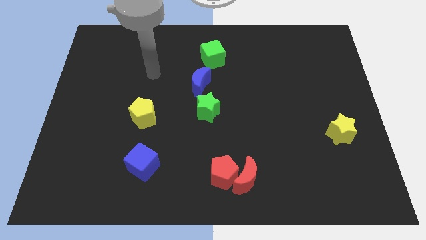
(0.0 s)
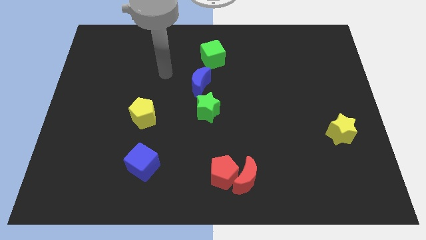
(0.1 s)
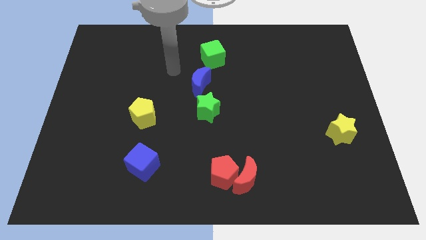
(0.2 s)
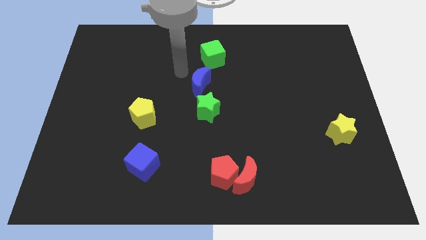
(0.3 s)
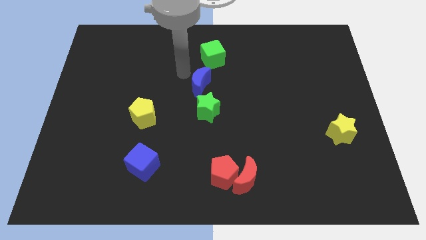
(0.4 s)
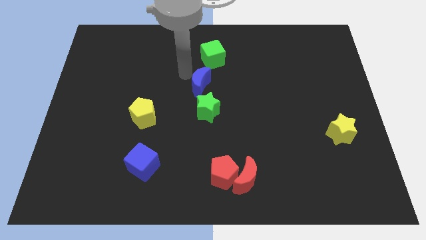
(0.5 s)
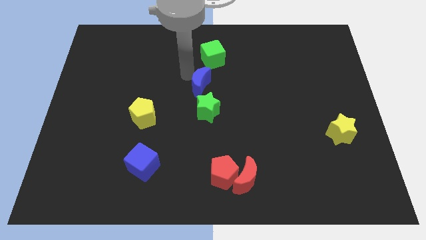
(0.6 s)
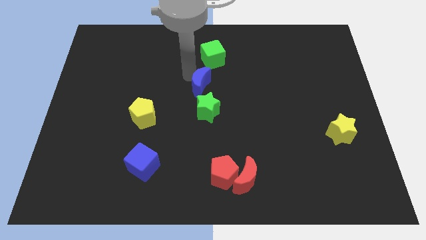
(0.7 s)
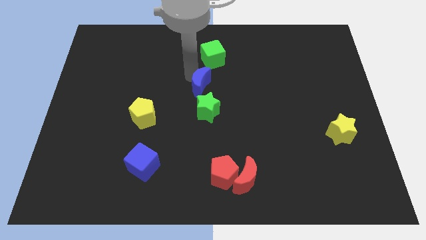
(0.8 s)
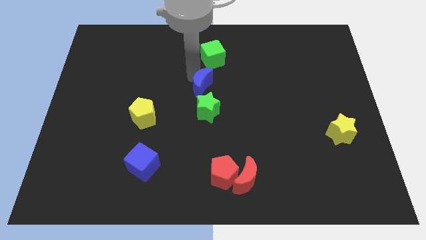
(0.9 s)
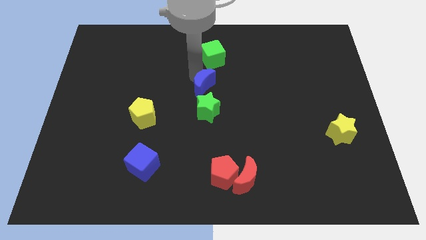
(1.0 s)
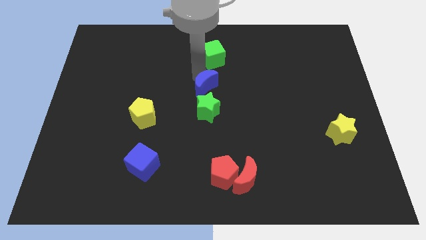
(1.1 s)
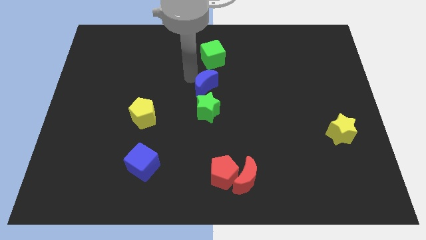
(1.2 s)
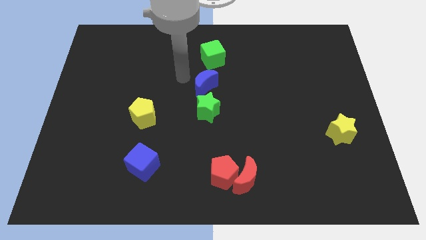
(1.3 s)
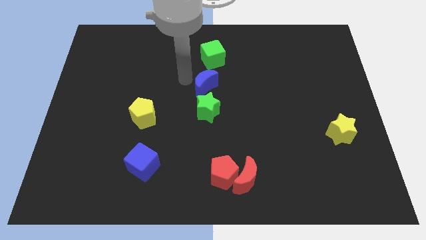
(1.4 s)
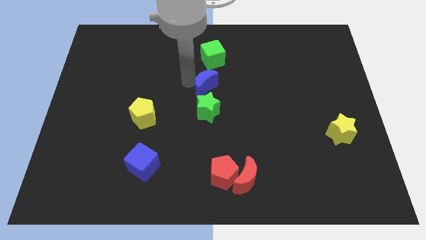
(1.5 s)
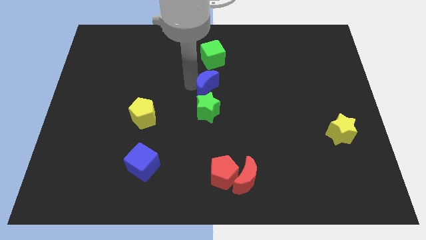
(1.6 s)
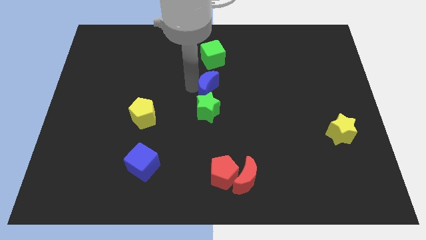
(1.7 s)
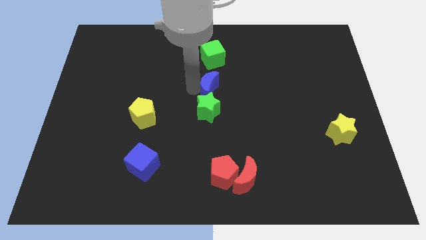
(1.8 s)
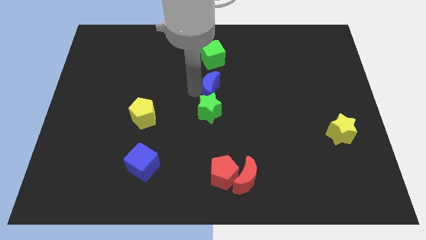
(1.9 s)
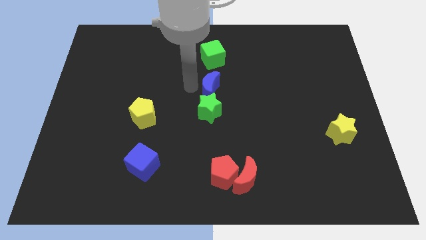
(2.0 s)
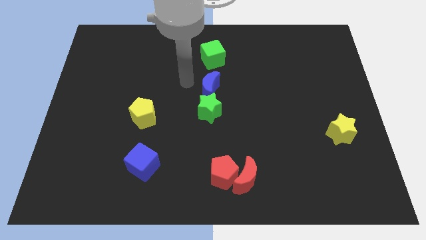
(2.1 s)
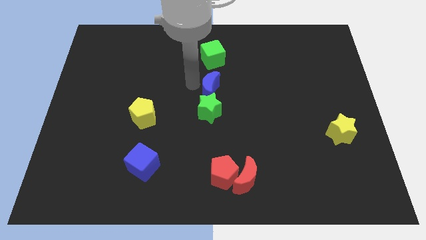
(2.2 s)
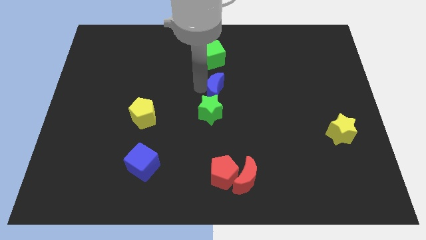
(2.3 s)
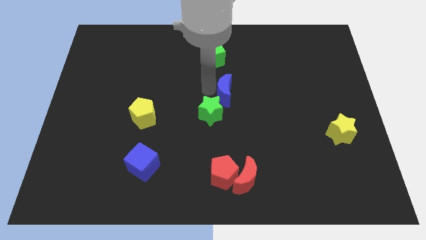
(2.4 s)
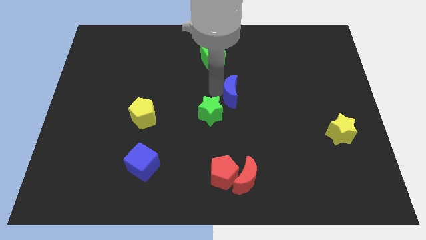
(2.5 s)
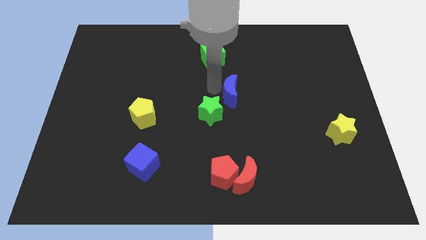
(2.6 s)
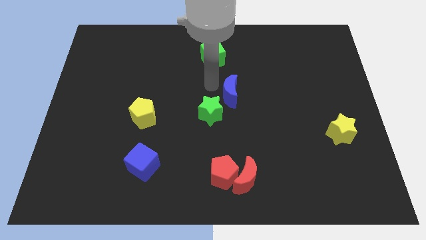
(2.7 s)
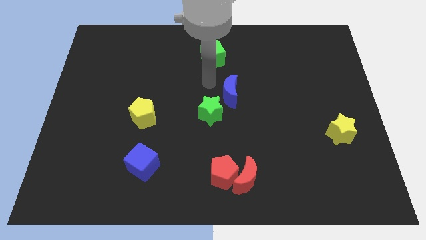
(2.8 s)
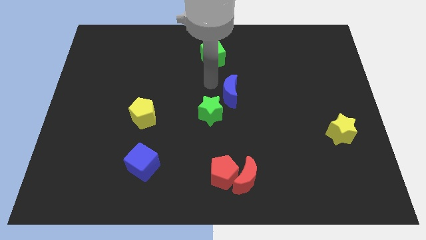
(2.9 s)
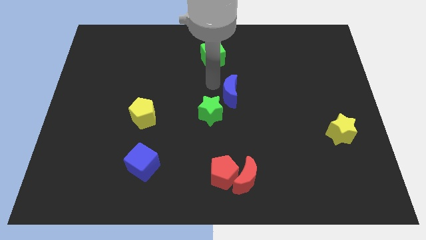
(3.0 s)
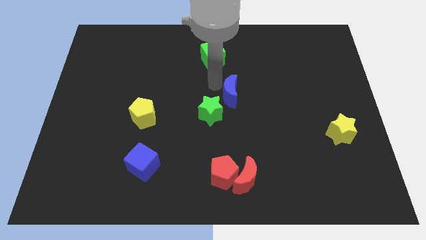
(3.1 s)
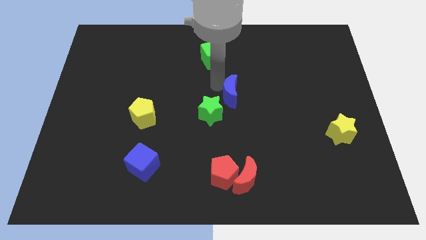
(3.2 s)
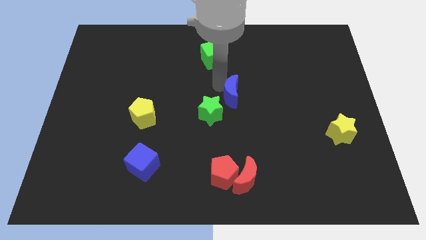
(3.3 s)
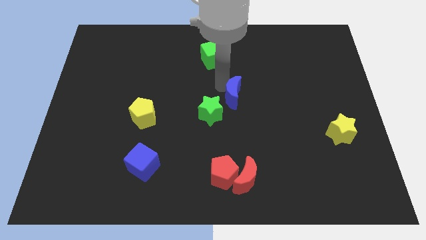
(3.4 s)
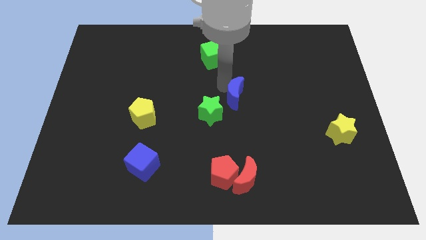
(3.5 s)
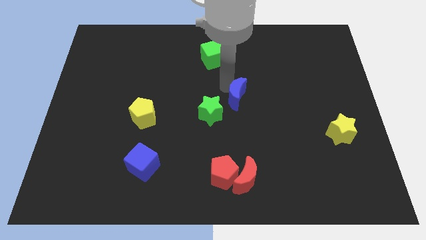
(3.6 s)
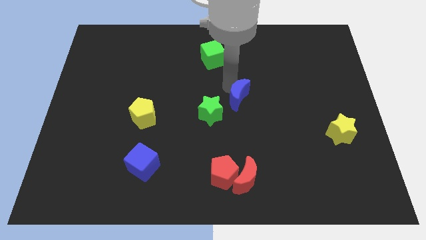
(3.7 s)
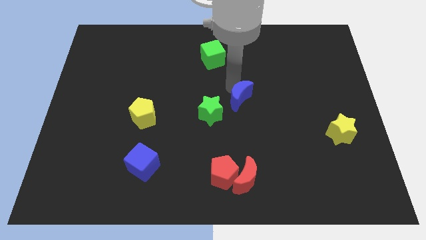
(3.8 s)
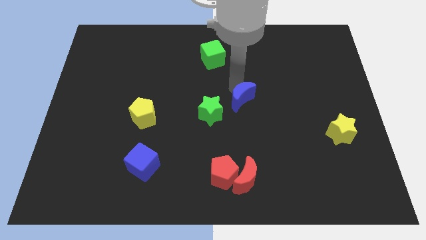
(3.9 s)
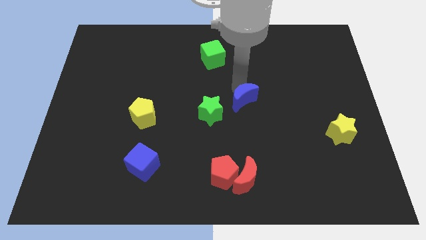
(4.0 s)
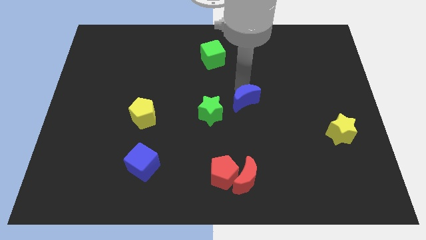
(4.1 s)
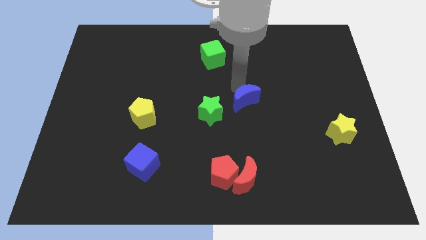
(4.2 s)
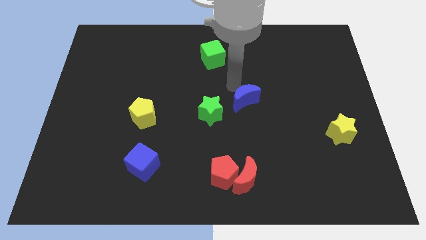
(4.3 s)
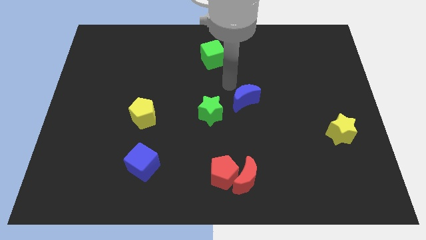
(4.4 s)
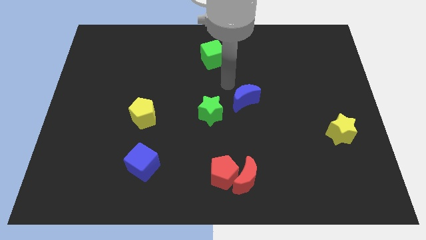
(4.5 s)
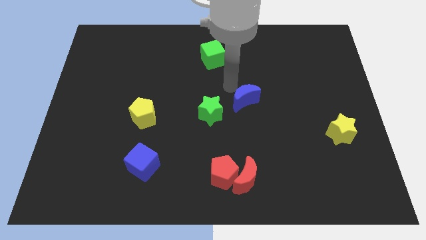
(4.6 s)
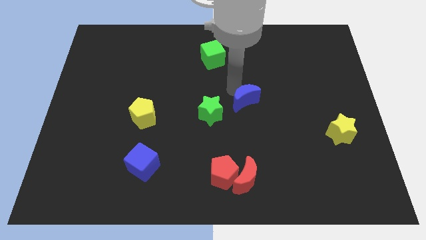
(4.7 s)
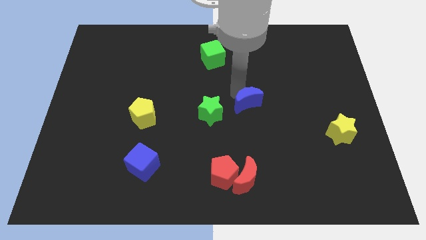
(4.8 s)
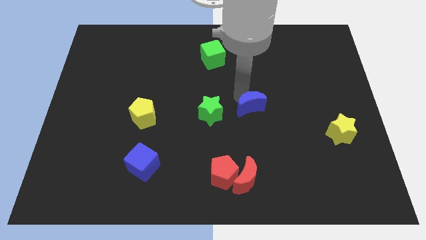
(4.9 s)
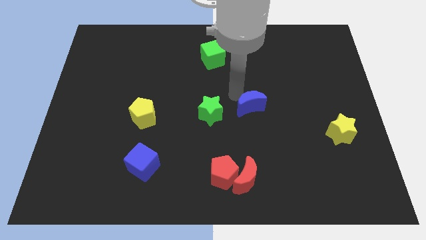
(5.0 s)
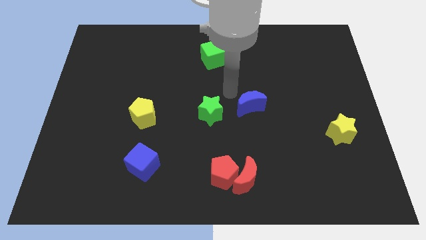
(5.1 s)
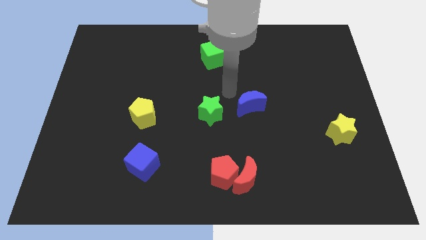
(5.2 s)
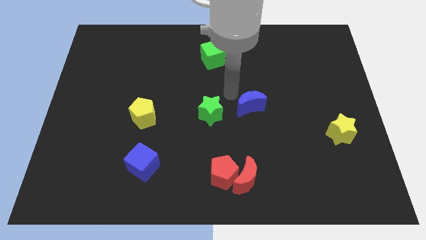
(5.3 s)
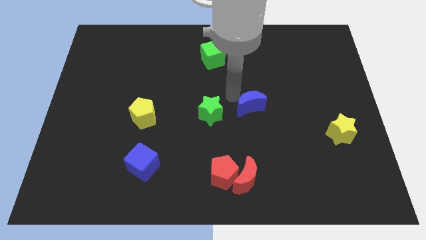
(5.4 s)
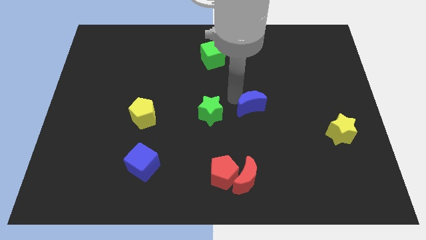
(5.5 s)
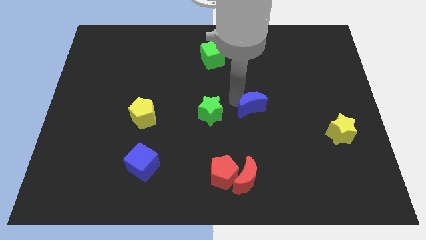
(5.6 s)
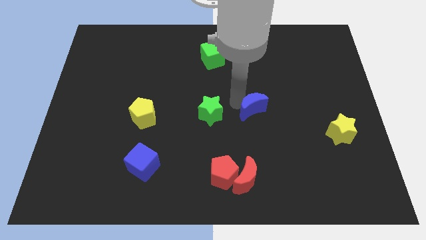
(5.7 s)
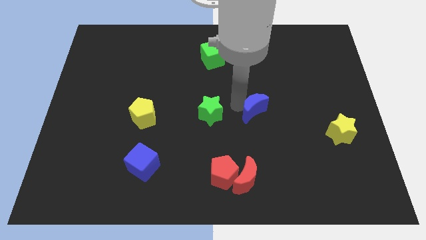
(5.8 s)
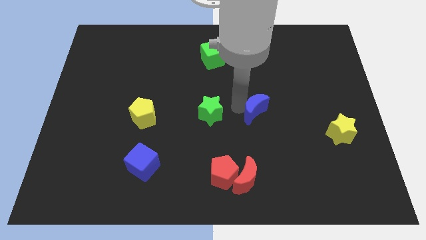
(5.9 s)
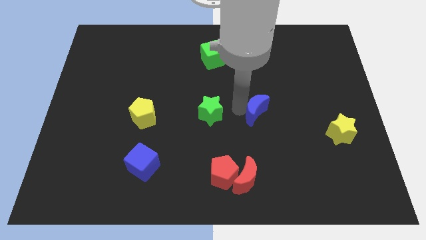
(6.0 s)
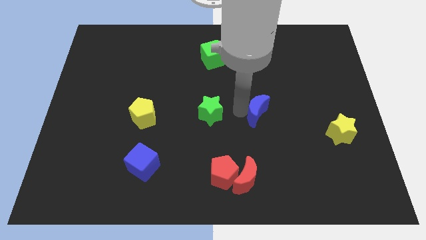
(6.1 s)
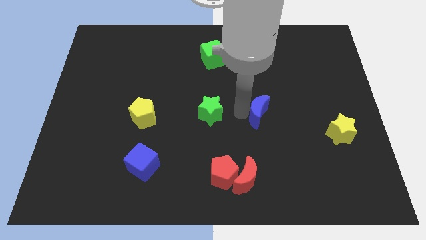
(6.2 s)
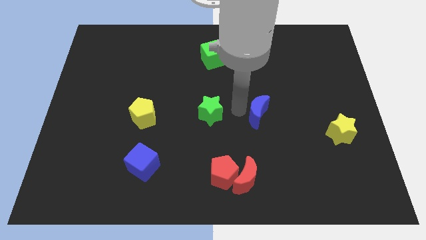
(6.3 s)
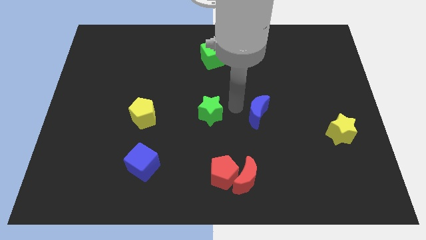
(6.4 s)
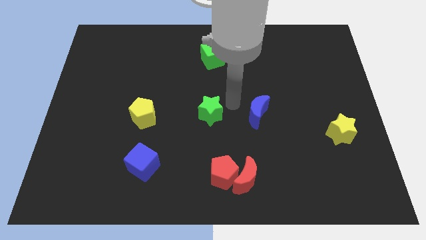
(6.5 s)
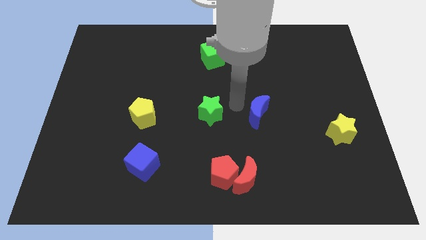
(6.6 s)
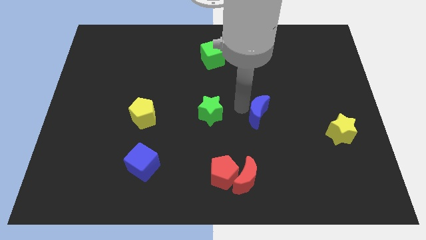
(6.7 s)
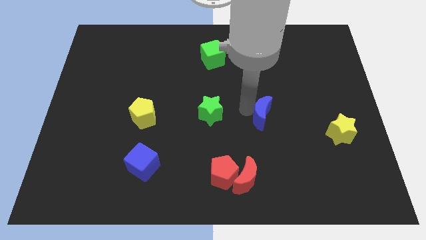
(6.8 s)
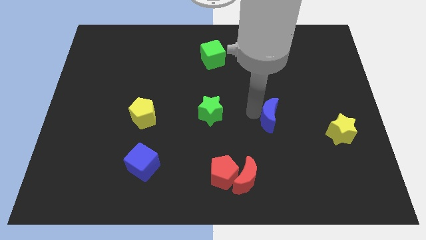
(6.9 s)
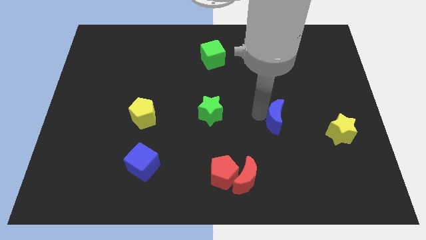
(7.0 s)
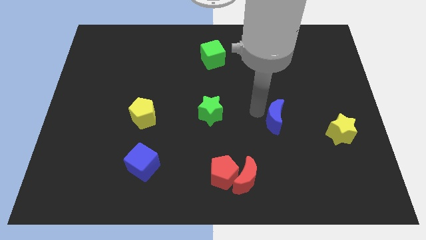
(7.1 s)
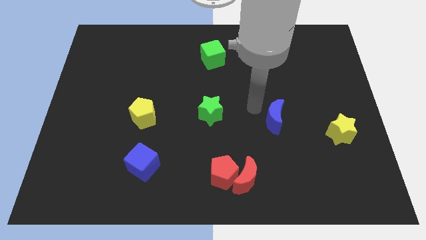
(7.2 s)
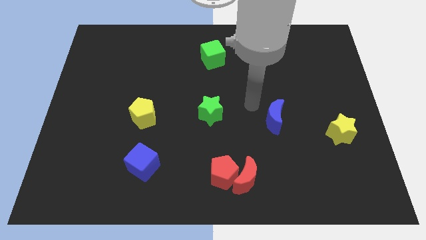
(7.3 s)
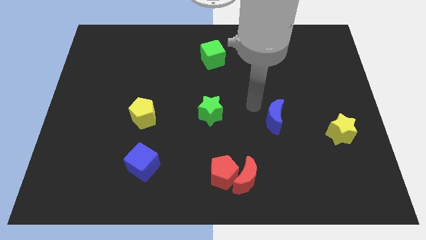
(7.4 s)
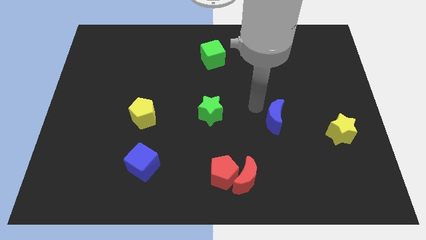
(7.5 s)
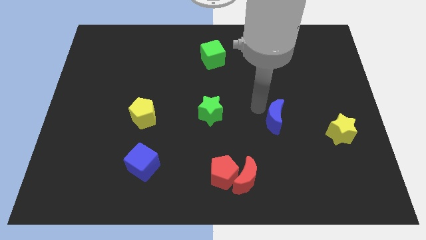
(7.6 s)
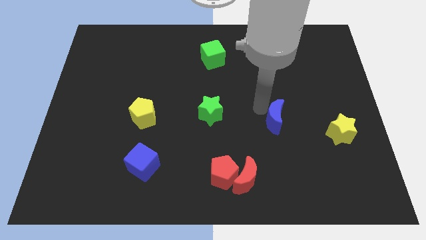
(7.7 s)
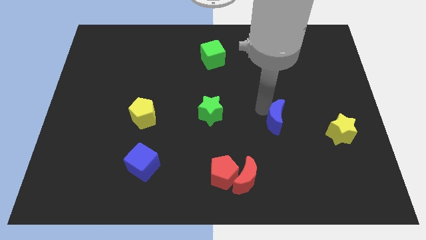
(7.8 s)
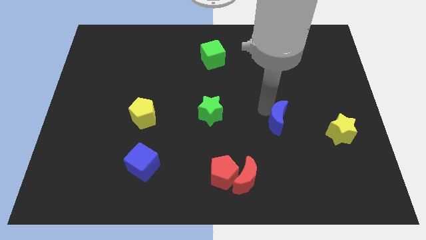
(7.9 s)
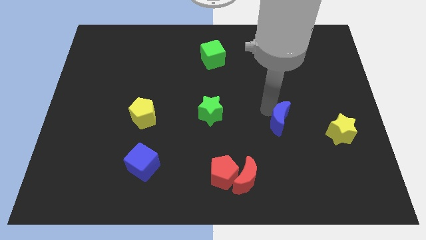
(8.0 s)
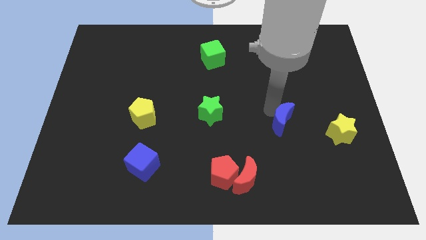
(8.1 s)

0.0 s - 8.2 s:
push the blue moon downwards and right
